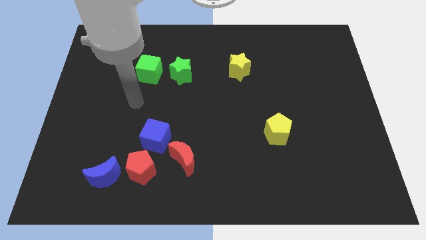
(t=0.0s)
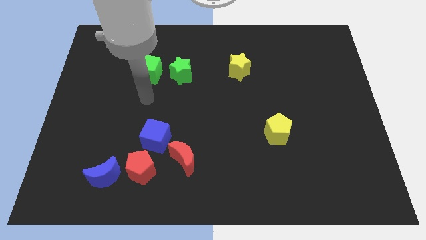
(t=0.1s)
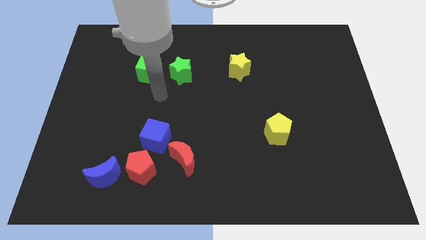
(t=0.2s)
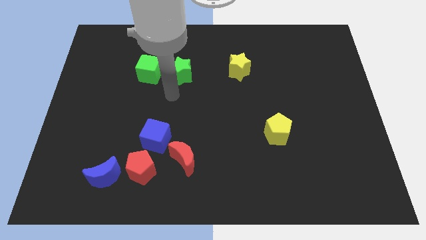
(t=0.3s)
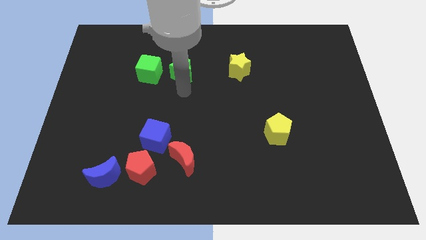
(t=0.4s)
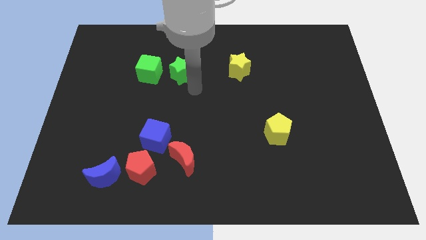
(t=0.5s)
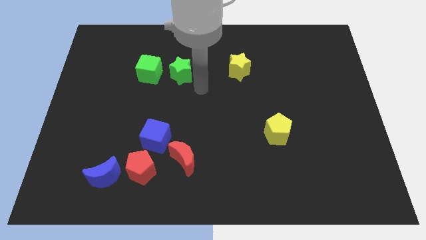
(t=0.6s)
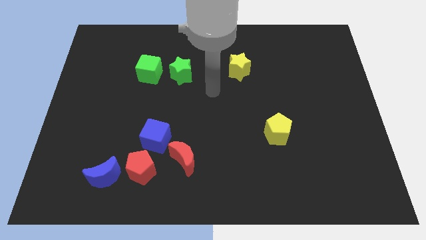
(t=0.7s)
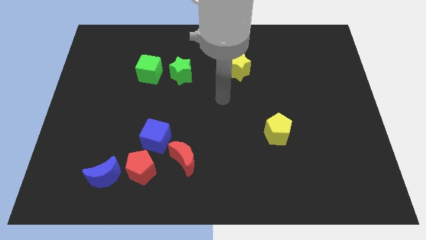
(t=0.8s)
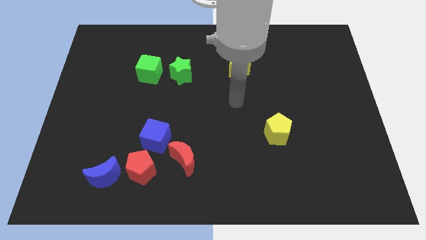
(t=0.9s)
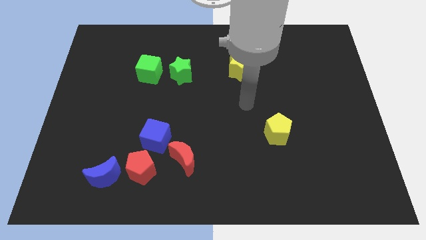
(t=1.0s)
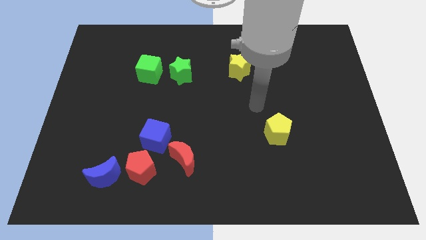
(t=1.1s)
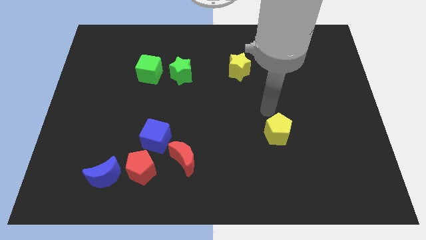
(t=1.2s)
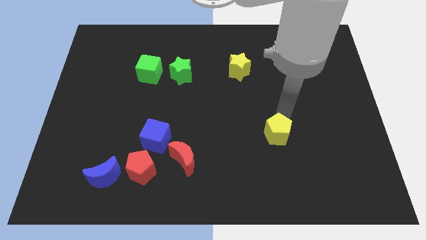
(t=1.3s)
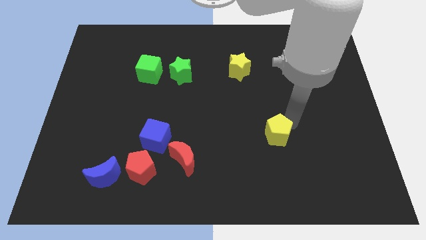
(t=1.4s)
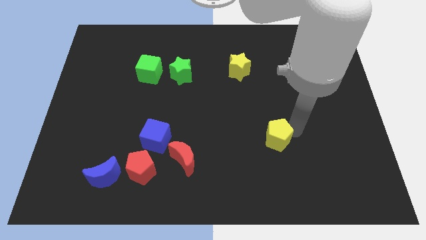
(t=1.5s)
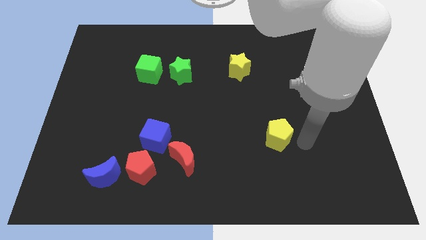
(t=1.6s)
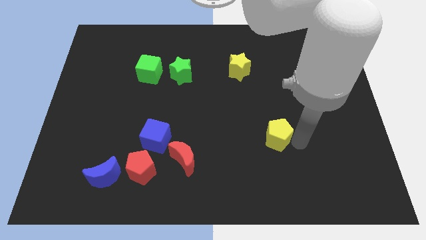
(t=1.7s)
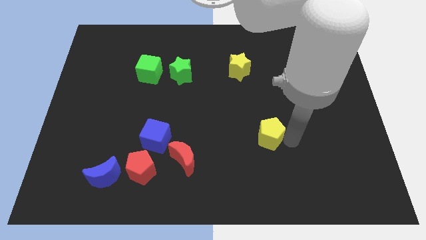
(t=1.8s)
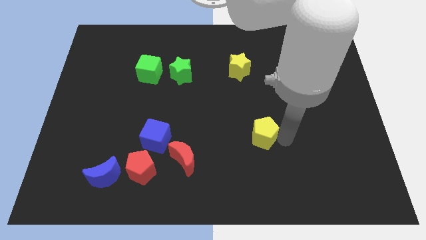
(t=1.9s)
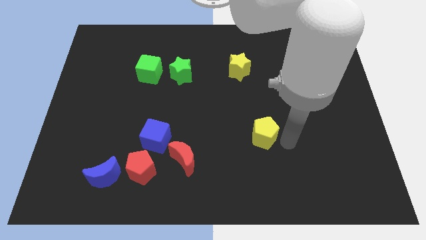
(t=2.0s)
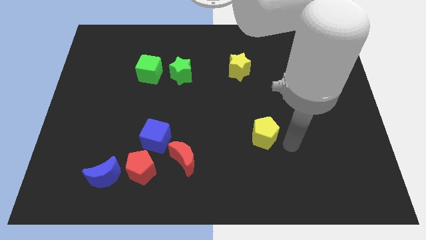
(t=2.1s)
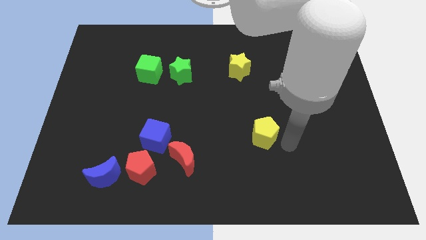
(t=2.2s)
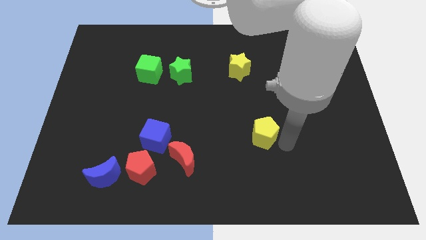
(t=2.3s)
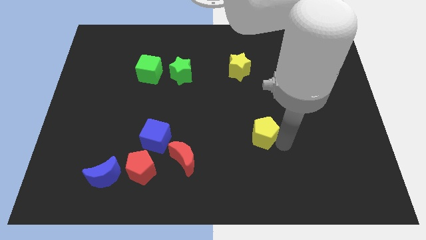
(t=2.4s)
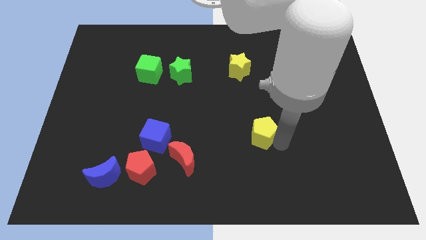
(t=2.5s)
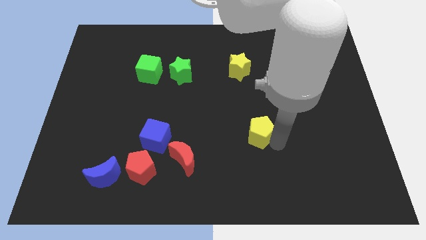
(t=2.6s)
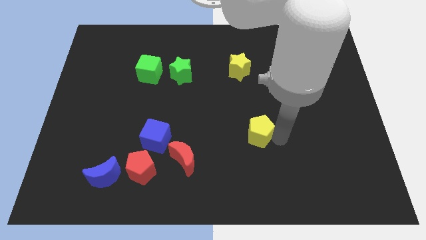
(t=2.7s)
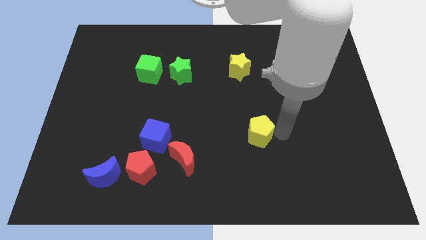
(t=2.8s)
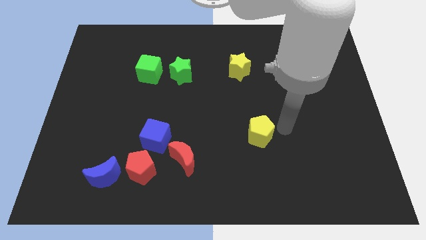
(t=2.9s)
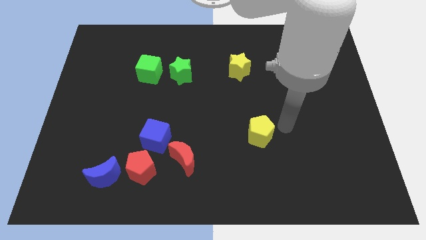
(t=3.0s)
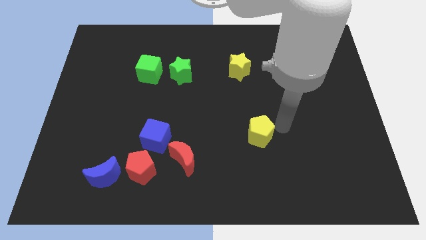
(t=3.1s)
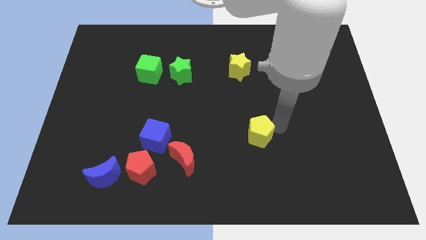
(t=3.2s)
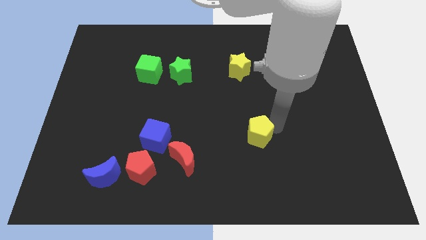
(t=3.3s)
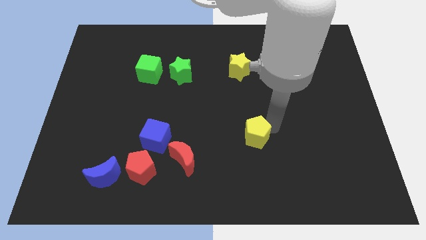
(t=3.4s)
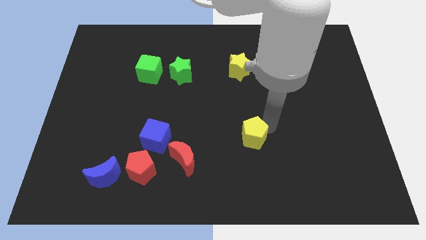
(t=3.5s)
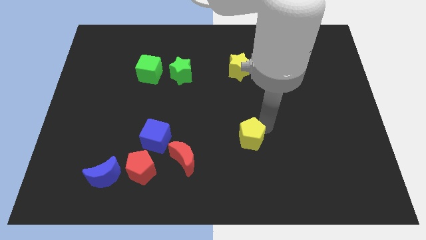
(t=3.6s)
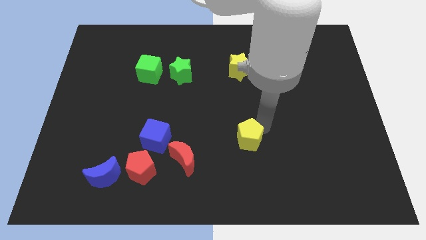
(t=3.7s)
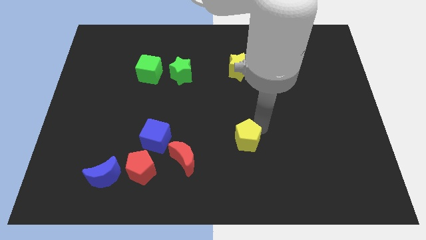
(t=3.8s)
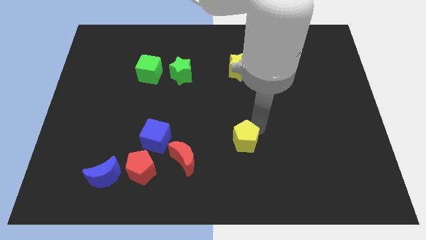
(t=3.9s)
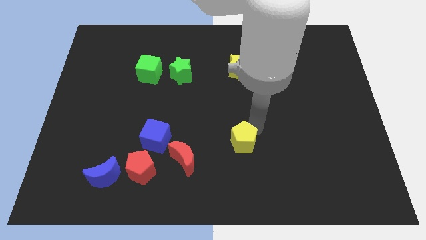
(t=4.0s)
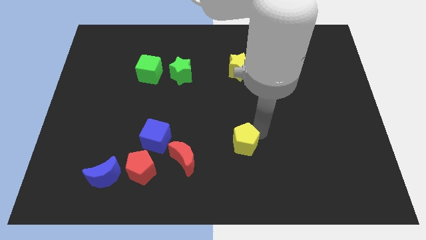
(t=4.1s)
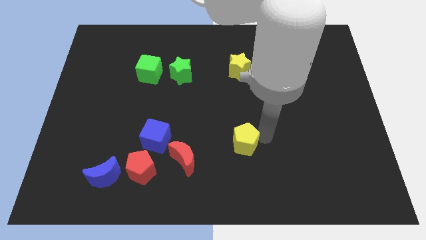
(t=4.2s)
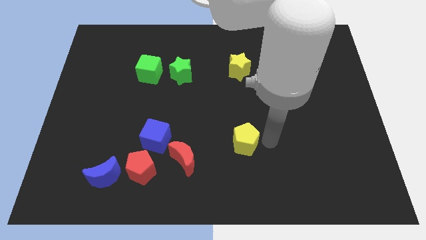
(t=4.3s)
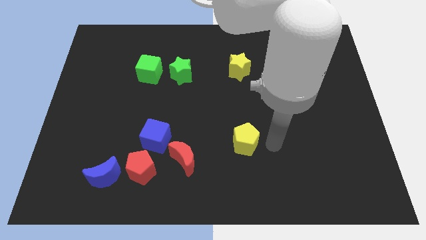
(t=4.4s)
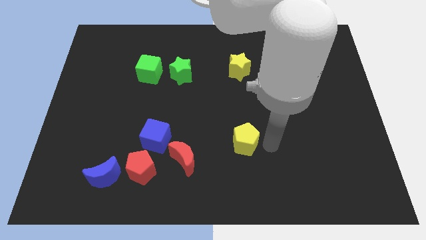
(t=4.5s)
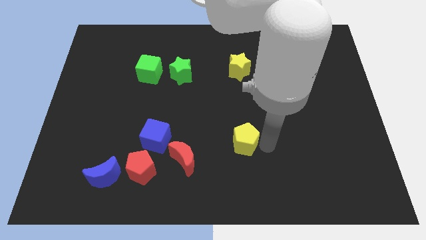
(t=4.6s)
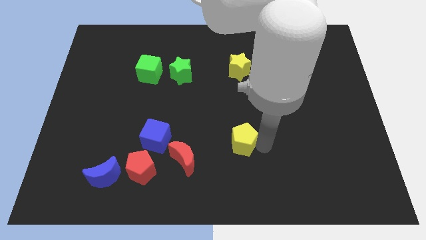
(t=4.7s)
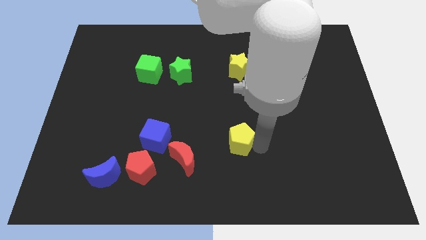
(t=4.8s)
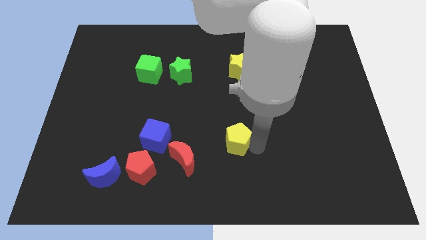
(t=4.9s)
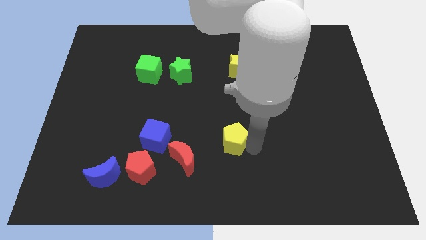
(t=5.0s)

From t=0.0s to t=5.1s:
push the yellow pentagon to the top right of the red moon

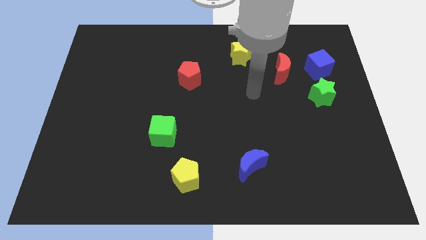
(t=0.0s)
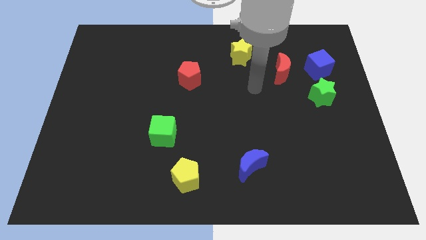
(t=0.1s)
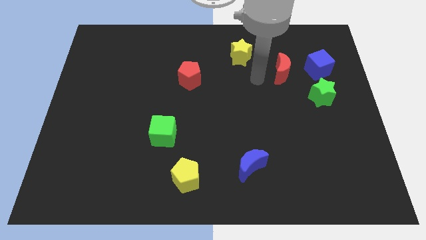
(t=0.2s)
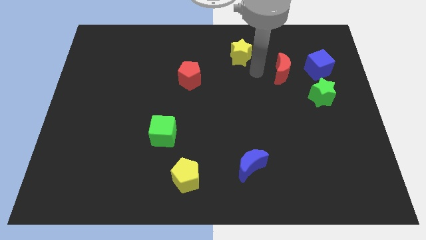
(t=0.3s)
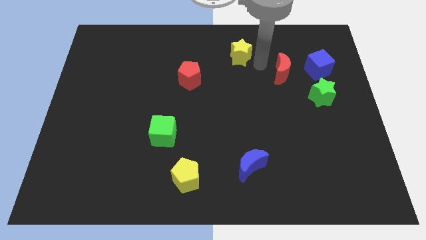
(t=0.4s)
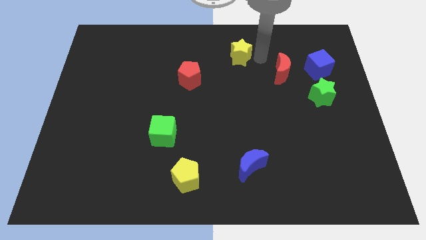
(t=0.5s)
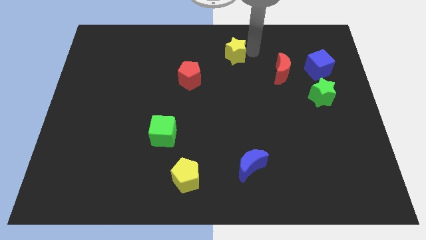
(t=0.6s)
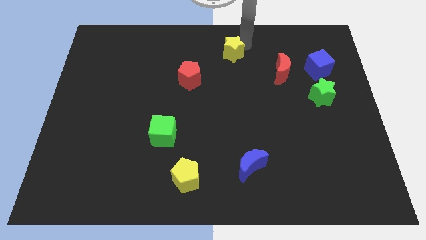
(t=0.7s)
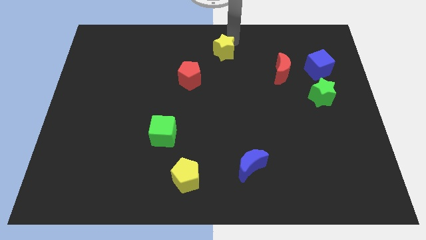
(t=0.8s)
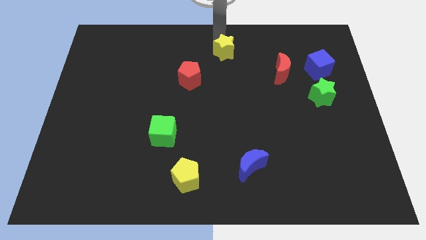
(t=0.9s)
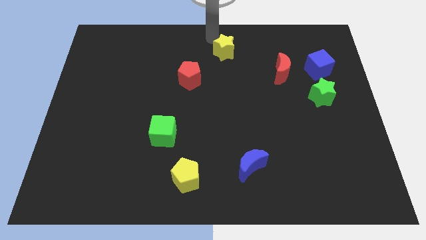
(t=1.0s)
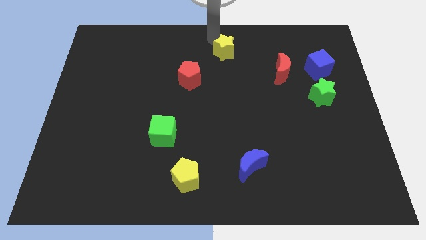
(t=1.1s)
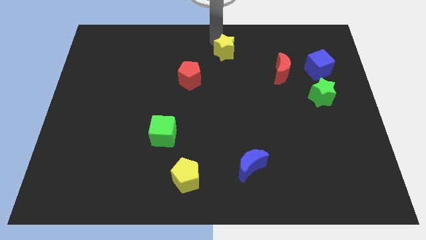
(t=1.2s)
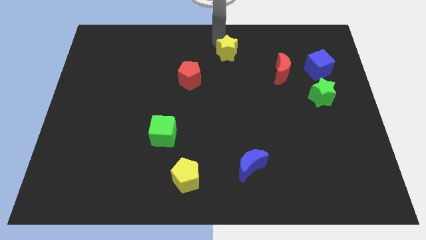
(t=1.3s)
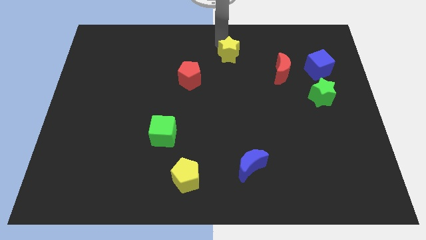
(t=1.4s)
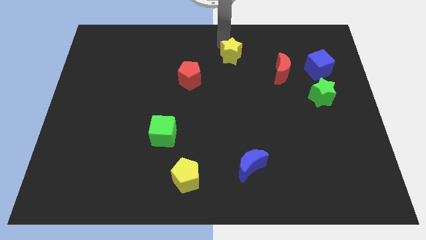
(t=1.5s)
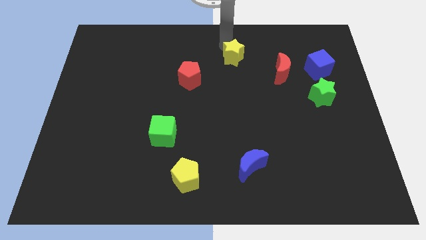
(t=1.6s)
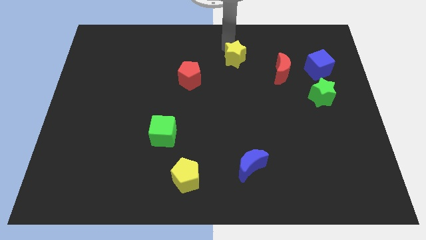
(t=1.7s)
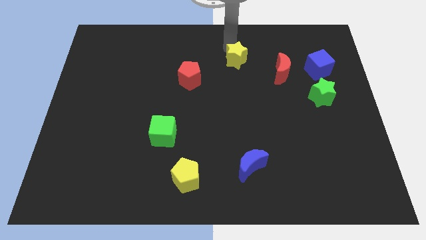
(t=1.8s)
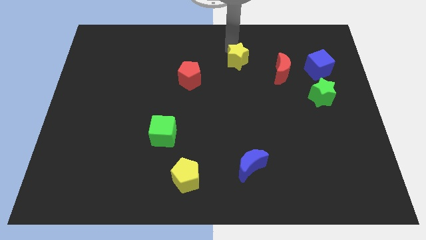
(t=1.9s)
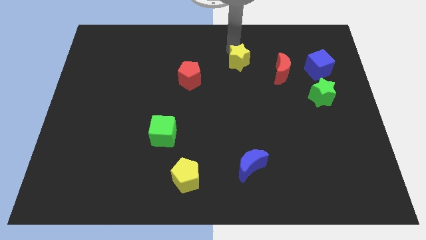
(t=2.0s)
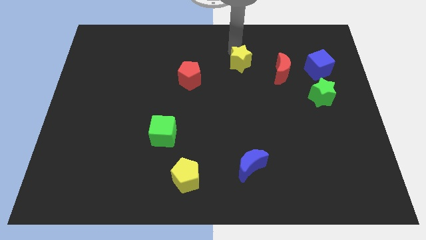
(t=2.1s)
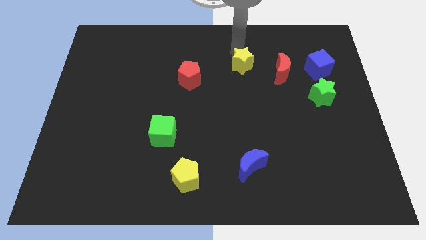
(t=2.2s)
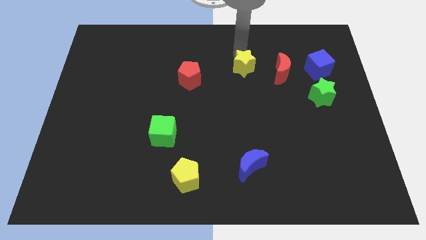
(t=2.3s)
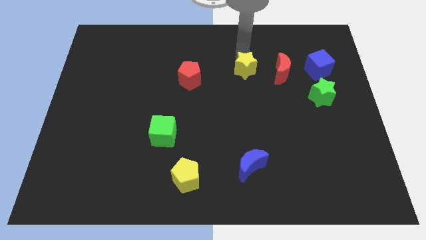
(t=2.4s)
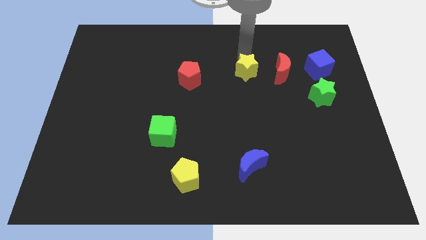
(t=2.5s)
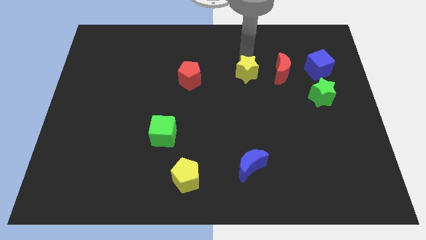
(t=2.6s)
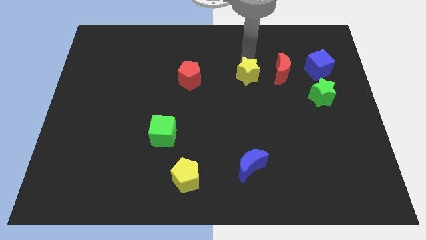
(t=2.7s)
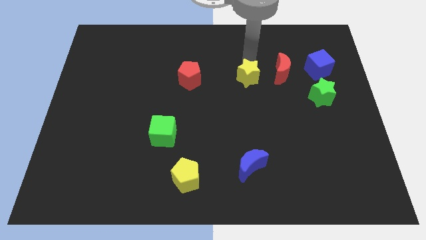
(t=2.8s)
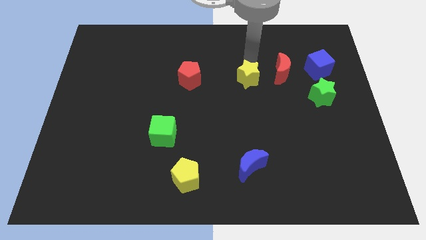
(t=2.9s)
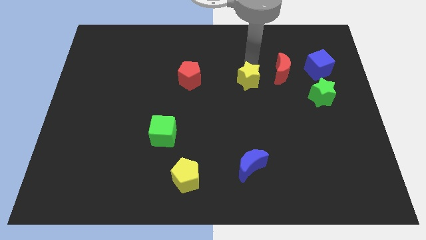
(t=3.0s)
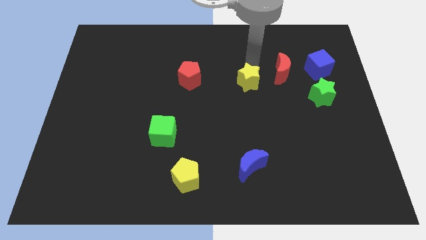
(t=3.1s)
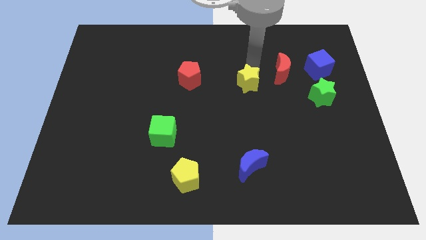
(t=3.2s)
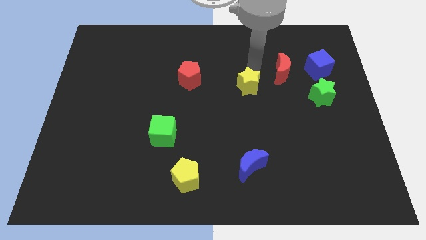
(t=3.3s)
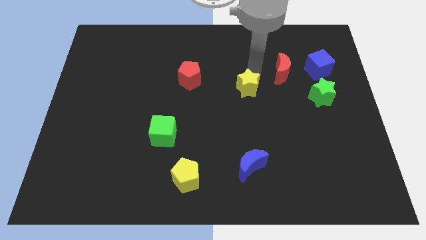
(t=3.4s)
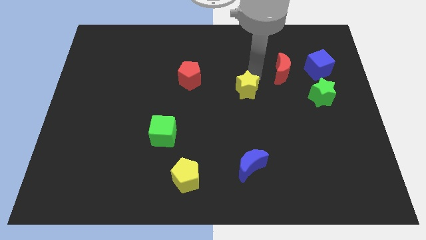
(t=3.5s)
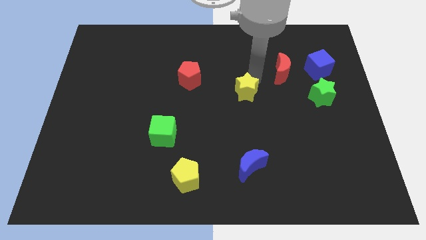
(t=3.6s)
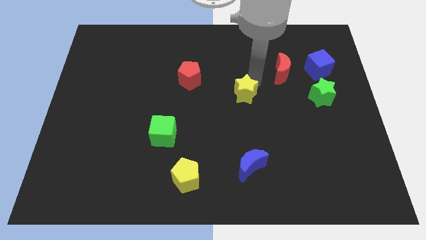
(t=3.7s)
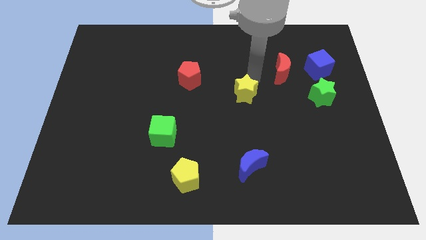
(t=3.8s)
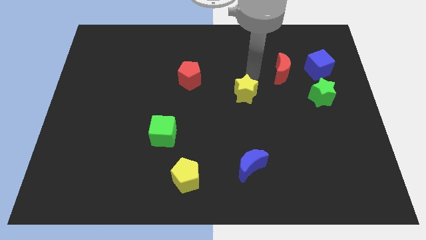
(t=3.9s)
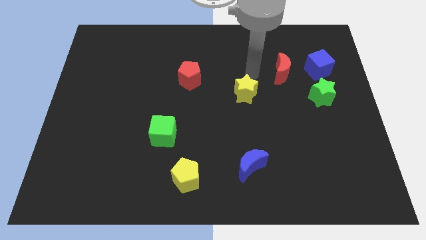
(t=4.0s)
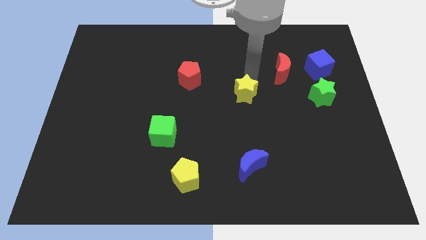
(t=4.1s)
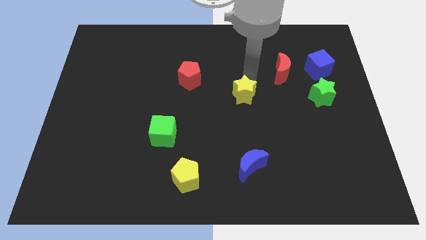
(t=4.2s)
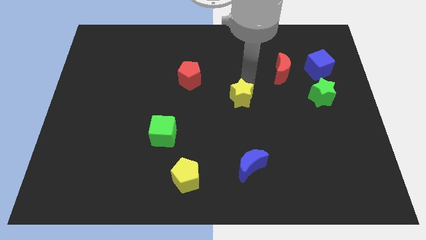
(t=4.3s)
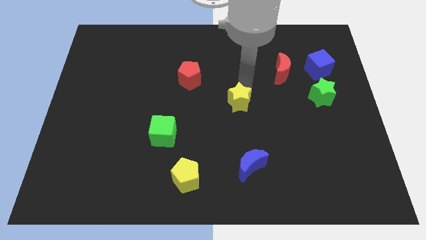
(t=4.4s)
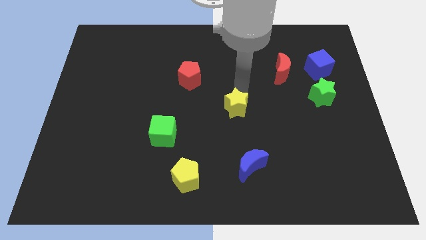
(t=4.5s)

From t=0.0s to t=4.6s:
move the yellow star to the top side of the blue moon
